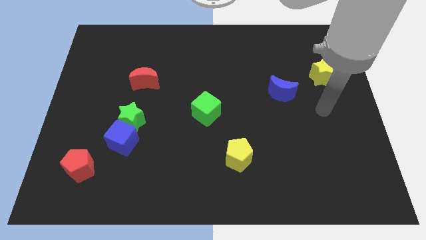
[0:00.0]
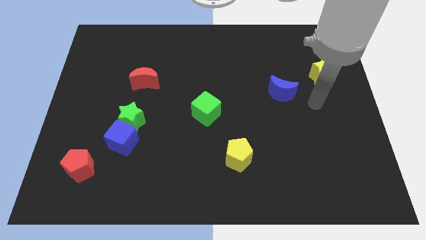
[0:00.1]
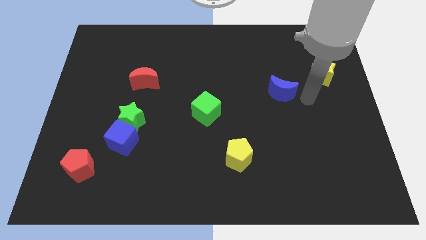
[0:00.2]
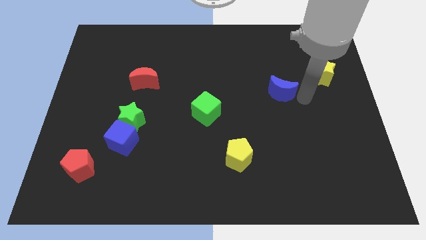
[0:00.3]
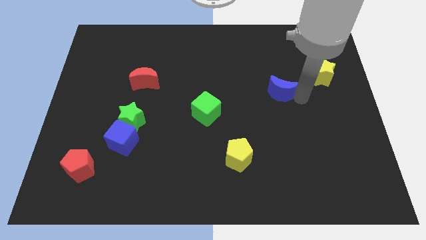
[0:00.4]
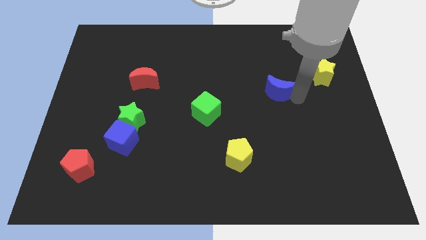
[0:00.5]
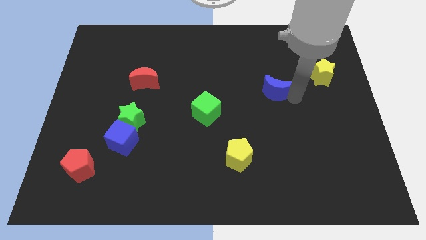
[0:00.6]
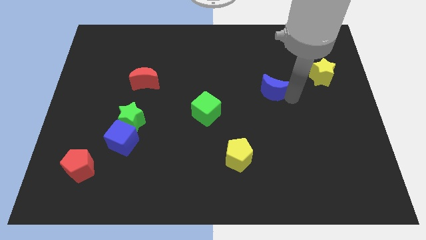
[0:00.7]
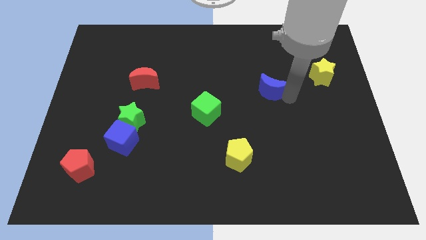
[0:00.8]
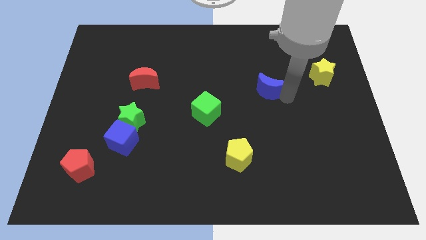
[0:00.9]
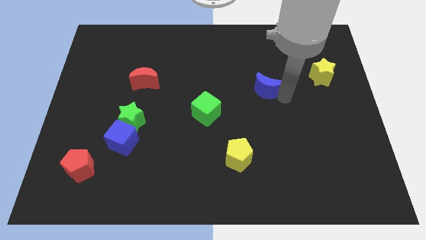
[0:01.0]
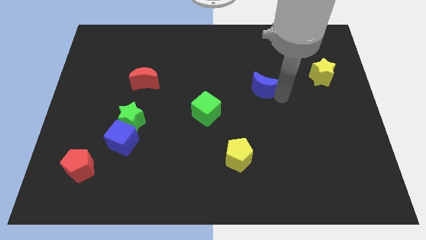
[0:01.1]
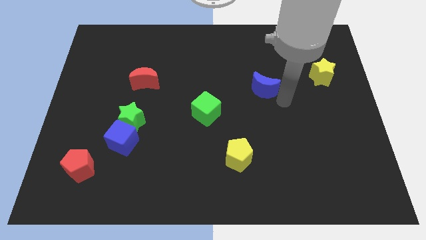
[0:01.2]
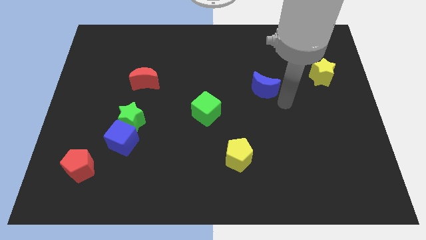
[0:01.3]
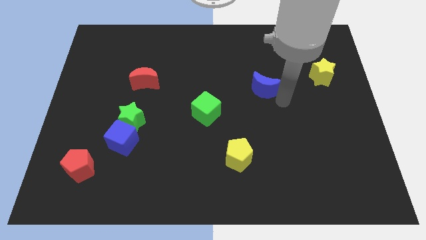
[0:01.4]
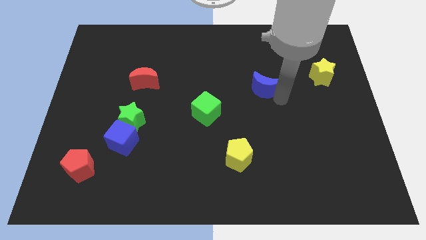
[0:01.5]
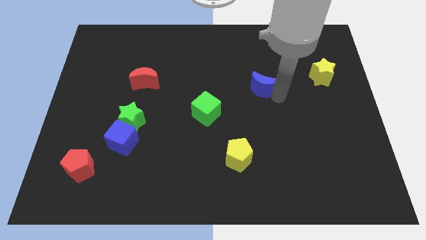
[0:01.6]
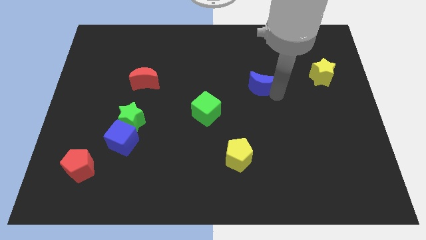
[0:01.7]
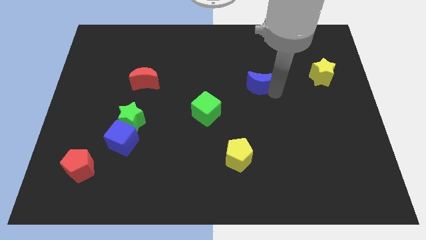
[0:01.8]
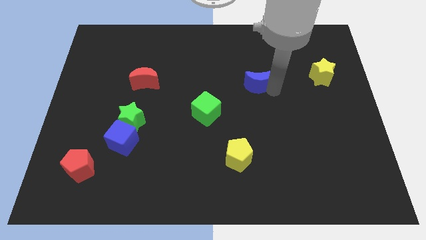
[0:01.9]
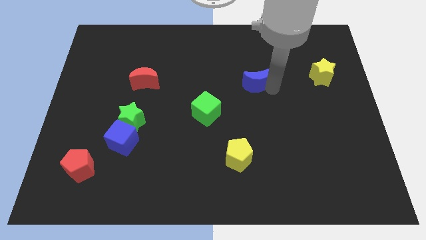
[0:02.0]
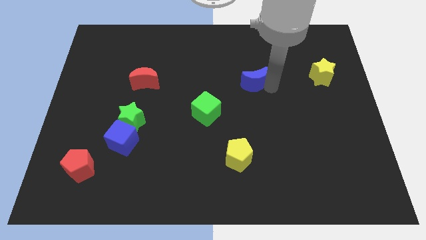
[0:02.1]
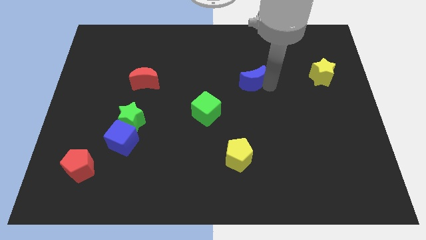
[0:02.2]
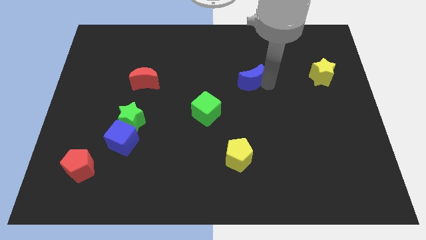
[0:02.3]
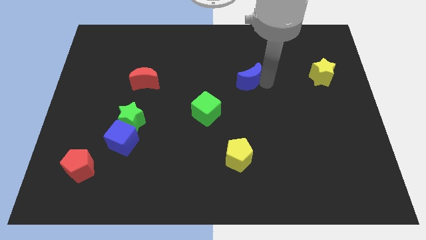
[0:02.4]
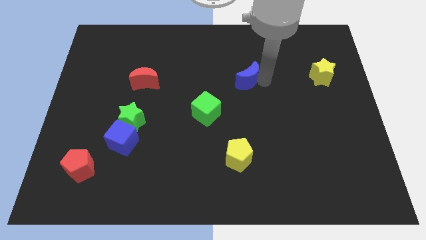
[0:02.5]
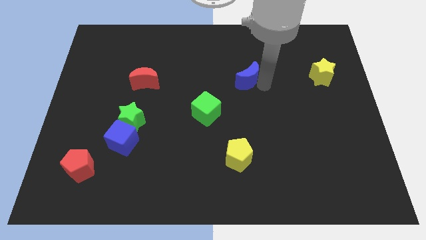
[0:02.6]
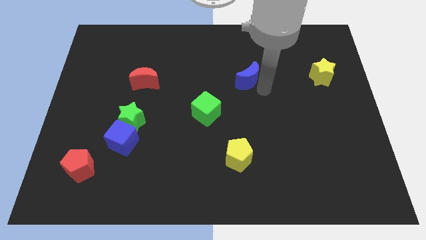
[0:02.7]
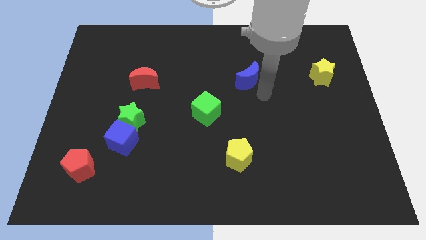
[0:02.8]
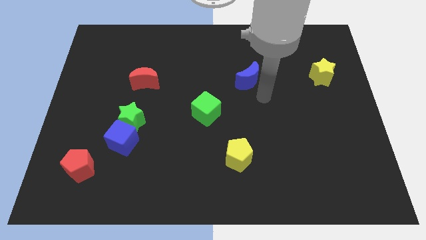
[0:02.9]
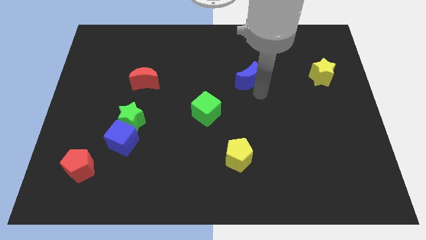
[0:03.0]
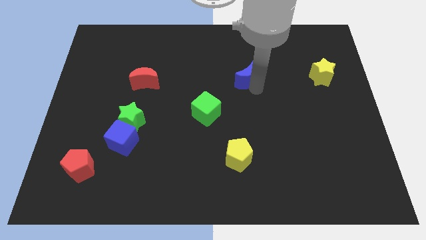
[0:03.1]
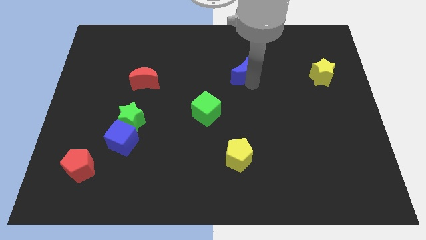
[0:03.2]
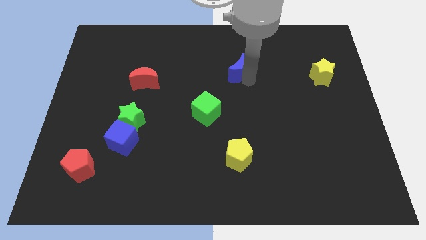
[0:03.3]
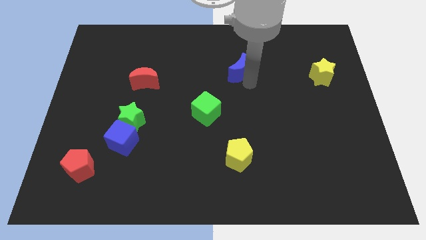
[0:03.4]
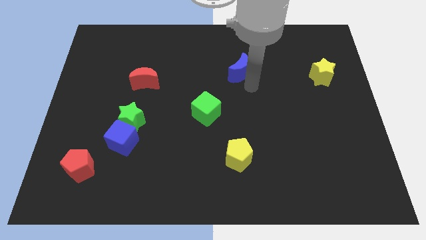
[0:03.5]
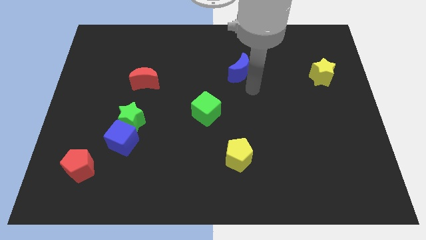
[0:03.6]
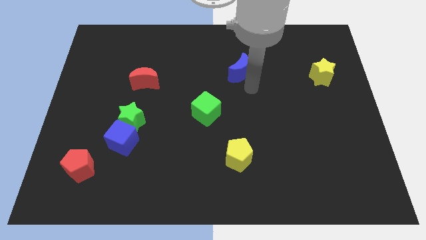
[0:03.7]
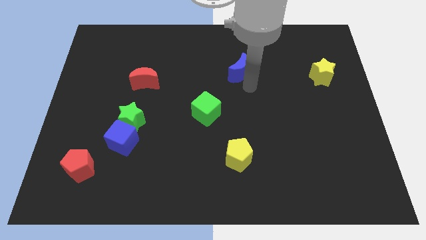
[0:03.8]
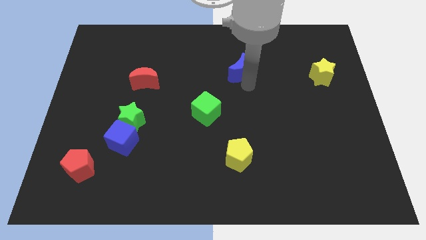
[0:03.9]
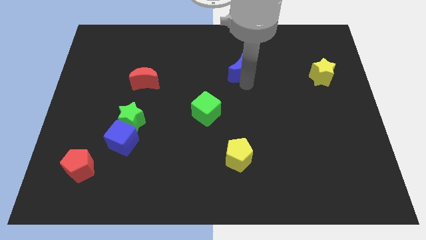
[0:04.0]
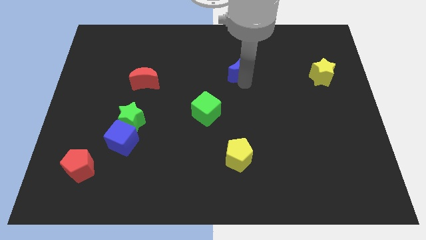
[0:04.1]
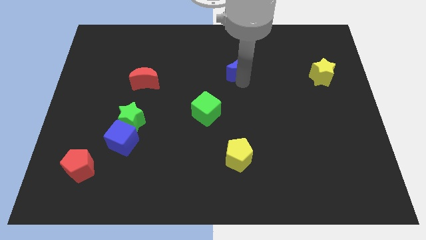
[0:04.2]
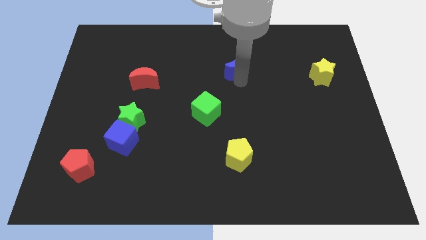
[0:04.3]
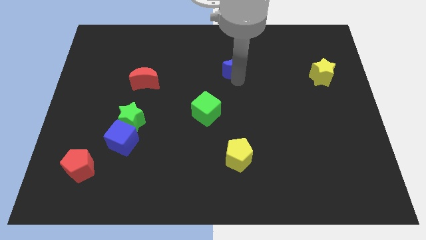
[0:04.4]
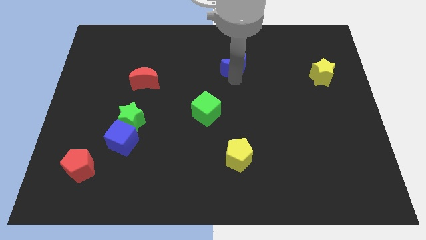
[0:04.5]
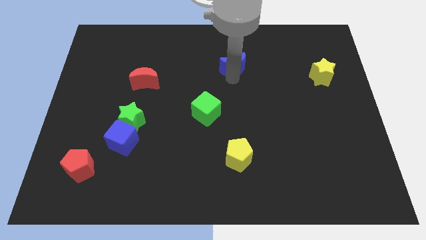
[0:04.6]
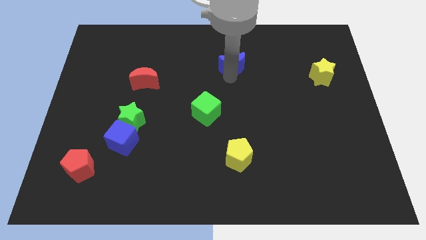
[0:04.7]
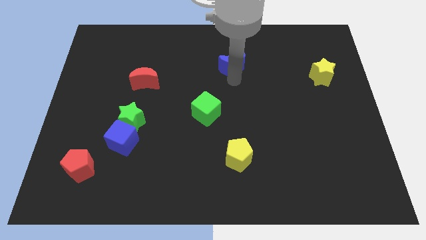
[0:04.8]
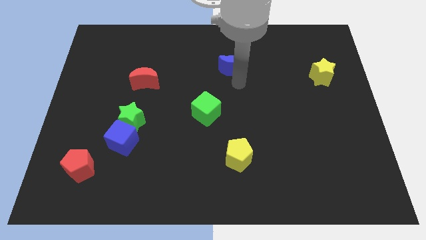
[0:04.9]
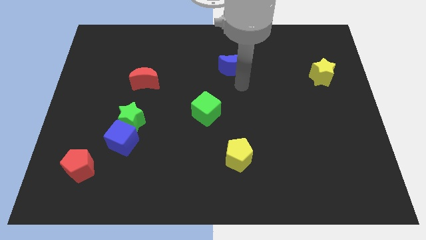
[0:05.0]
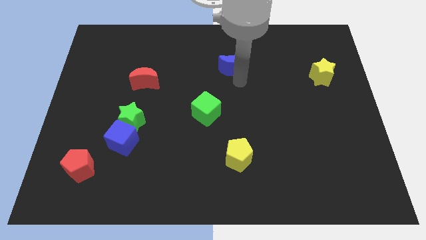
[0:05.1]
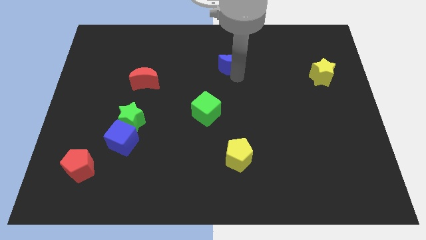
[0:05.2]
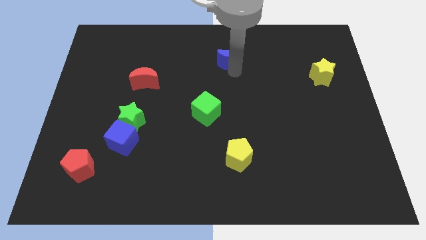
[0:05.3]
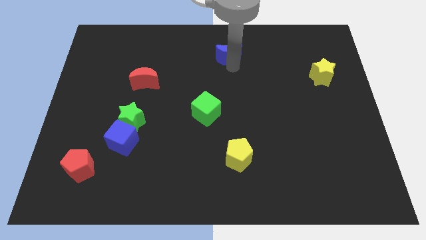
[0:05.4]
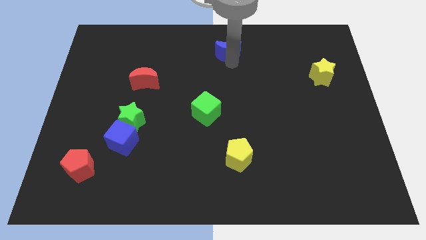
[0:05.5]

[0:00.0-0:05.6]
push the blue moon to the top side

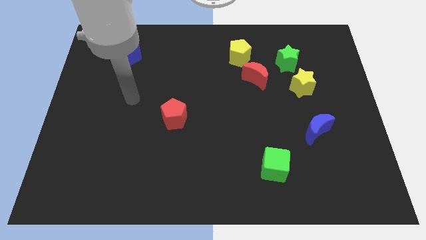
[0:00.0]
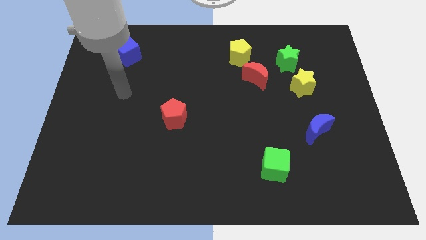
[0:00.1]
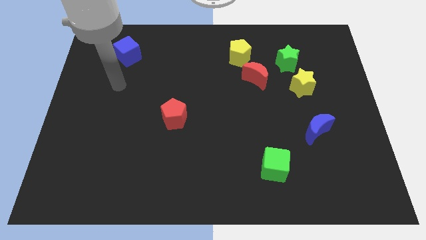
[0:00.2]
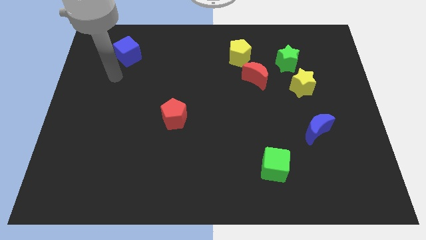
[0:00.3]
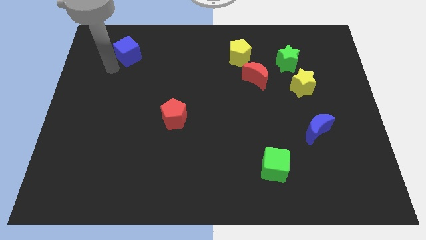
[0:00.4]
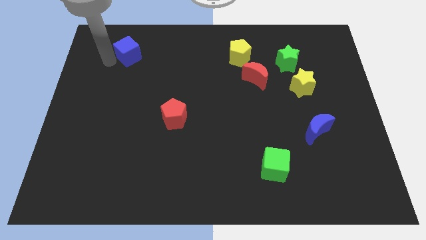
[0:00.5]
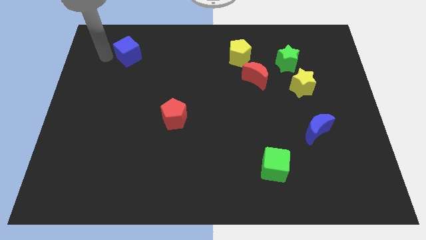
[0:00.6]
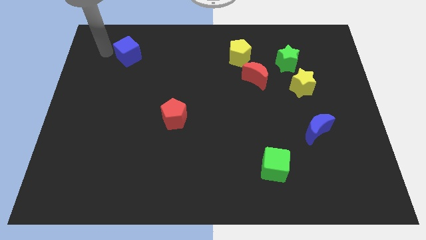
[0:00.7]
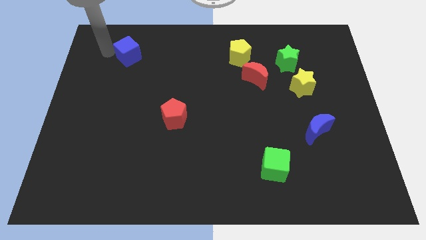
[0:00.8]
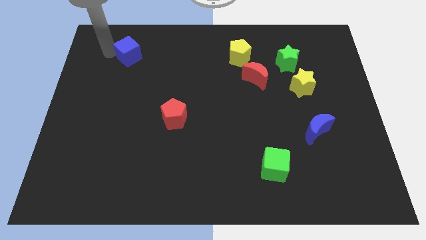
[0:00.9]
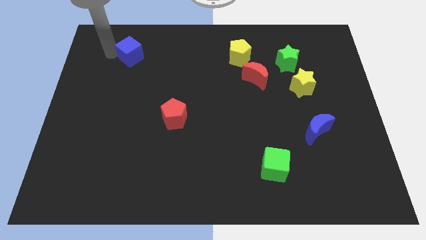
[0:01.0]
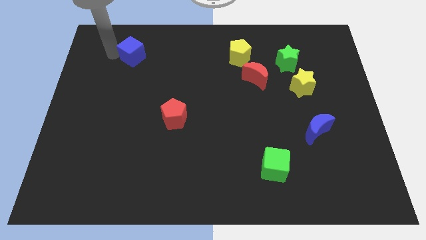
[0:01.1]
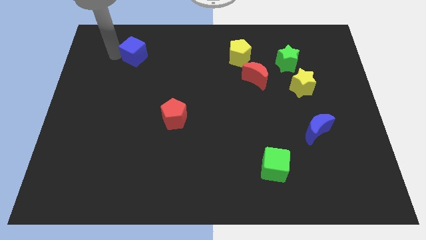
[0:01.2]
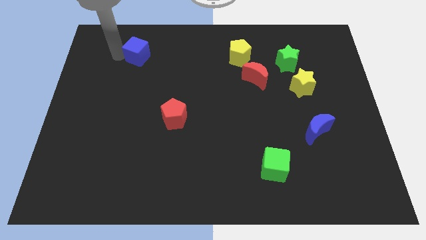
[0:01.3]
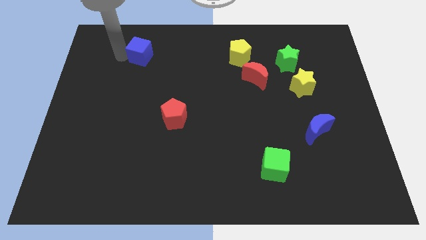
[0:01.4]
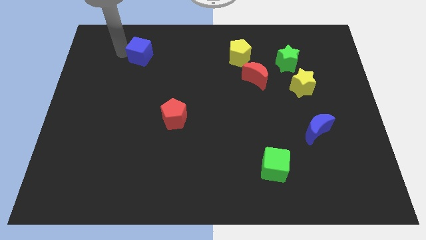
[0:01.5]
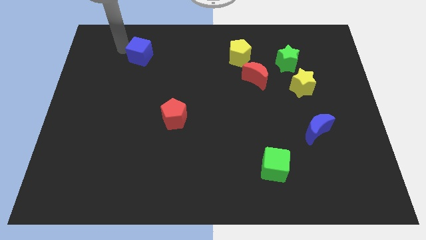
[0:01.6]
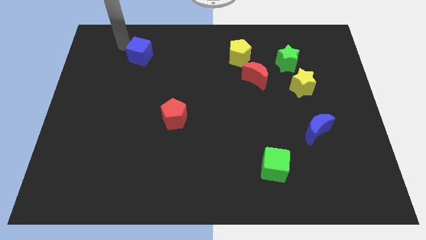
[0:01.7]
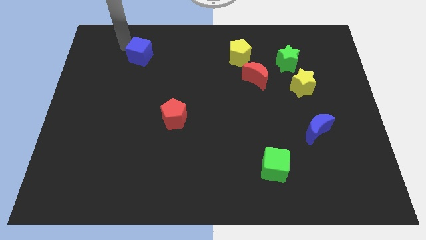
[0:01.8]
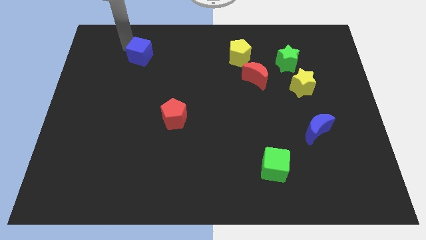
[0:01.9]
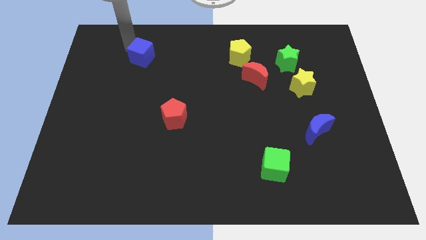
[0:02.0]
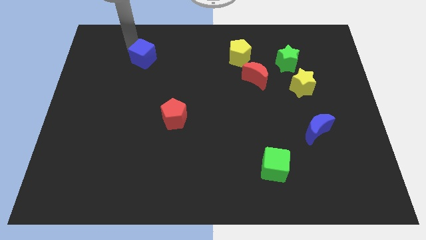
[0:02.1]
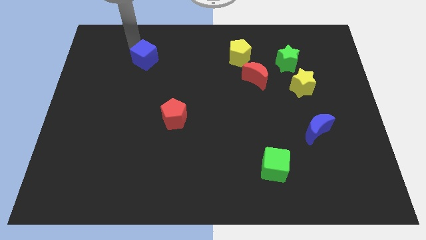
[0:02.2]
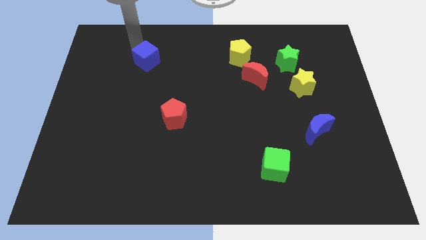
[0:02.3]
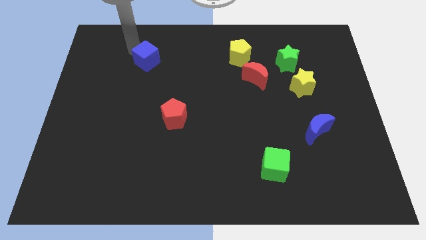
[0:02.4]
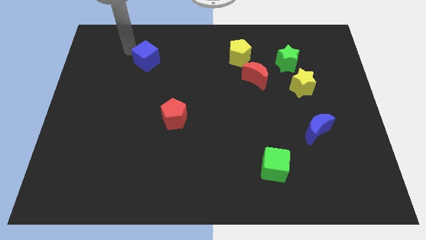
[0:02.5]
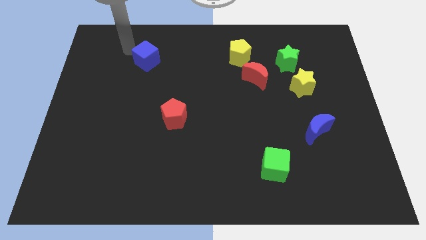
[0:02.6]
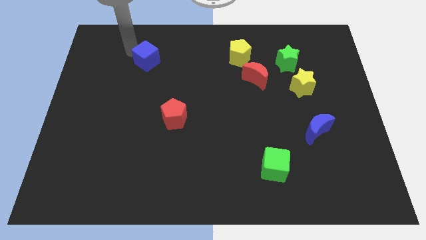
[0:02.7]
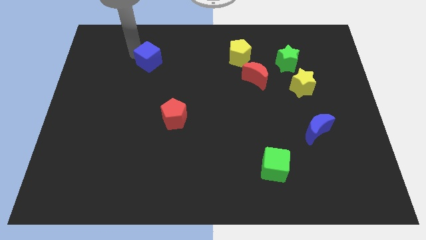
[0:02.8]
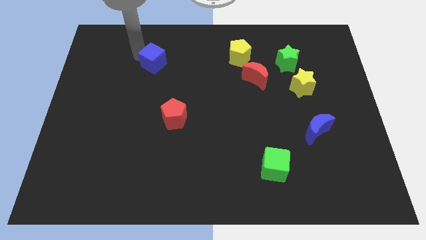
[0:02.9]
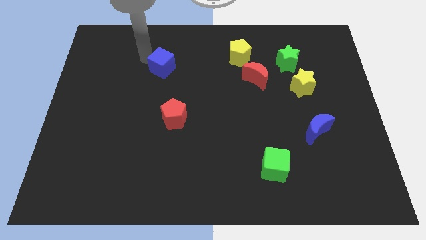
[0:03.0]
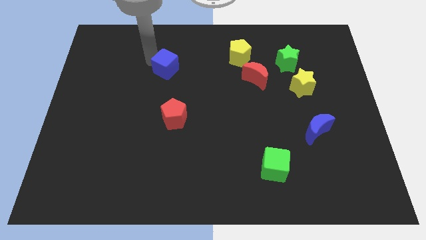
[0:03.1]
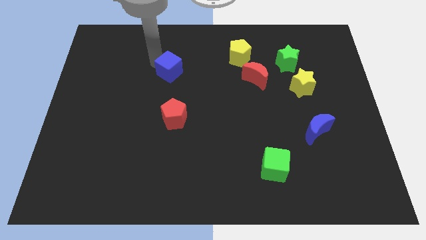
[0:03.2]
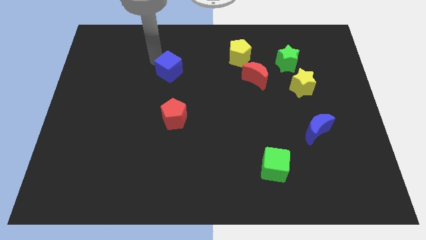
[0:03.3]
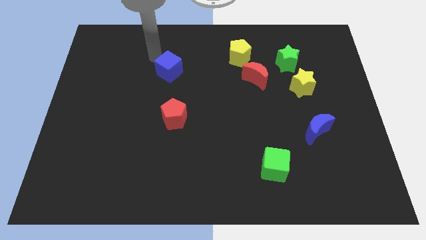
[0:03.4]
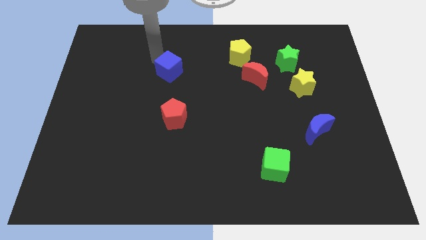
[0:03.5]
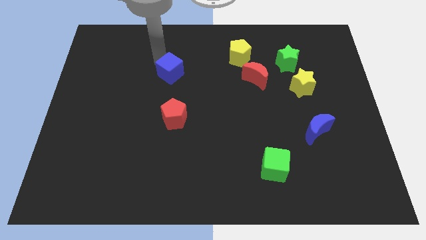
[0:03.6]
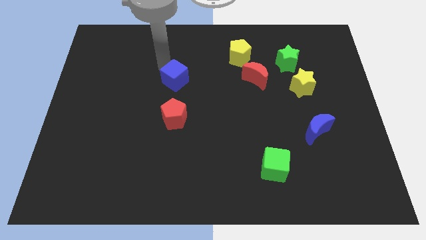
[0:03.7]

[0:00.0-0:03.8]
move the blue cube to the middle of the board
